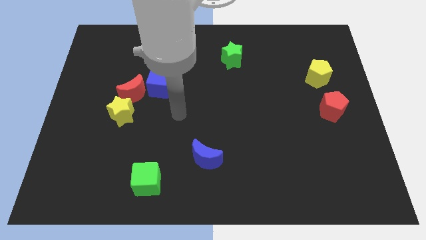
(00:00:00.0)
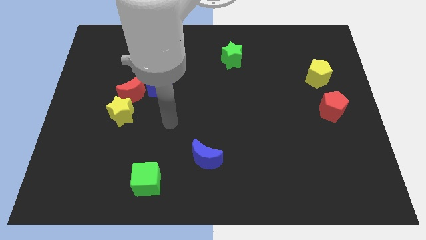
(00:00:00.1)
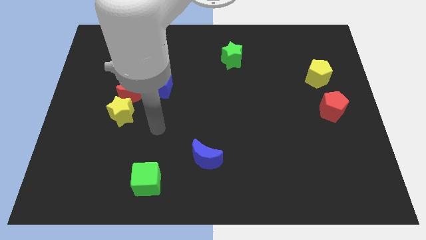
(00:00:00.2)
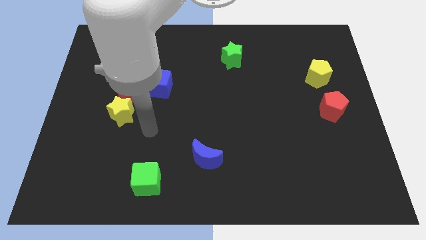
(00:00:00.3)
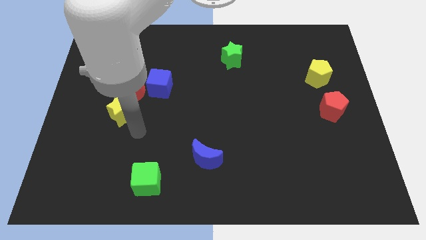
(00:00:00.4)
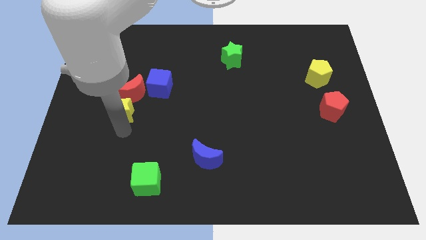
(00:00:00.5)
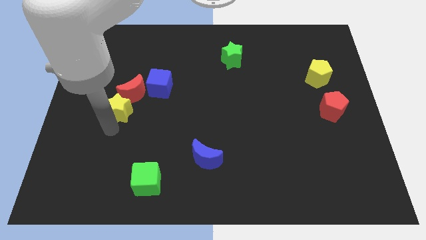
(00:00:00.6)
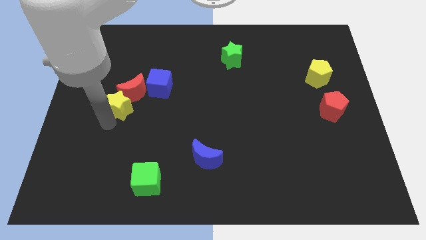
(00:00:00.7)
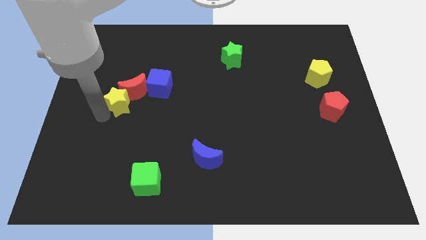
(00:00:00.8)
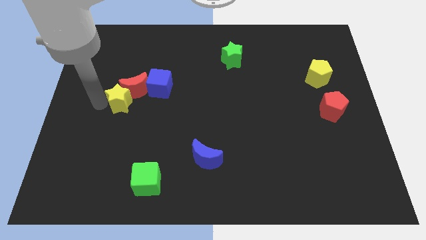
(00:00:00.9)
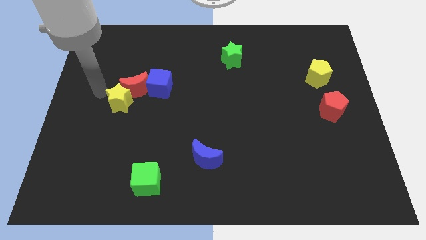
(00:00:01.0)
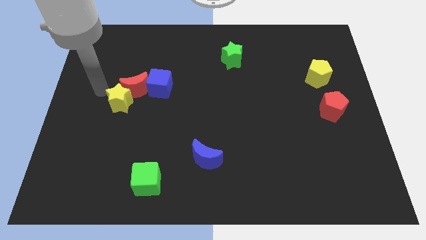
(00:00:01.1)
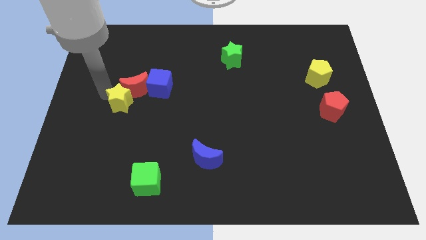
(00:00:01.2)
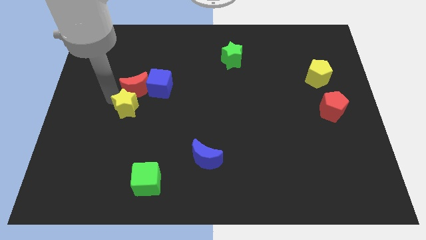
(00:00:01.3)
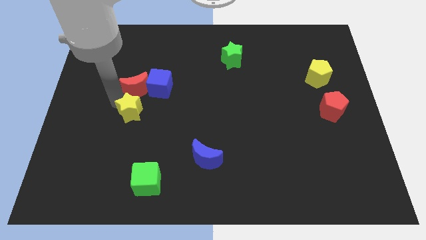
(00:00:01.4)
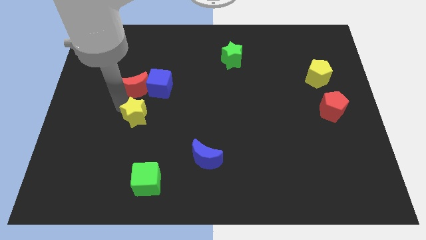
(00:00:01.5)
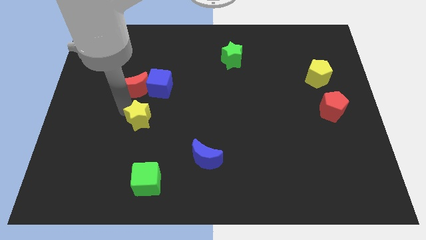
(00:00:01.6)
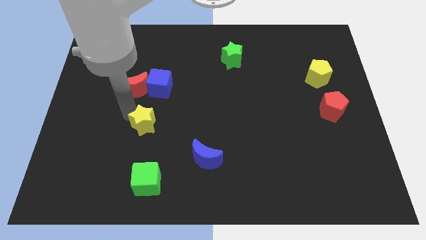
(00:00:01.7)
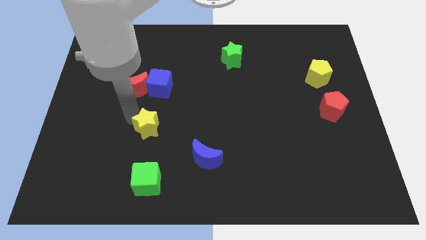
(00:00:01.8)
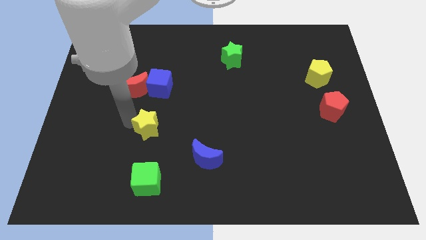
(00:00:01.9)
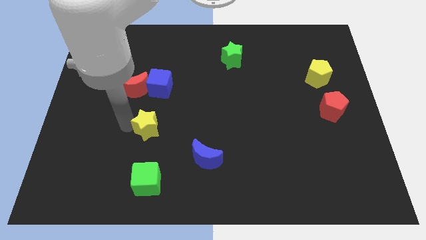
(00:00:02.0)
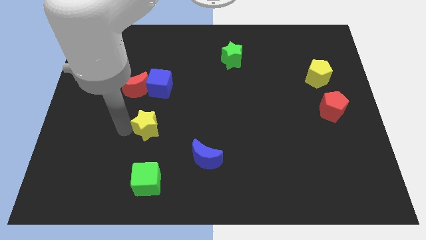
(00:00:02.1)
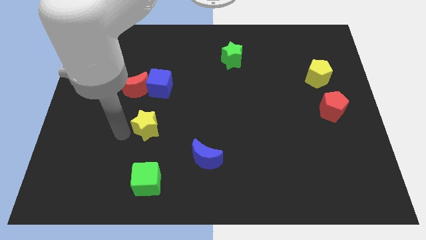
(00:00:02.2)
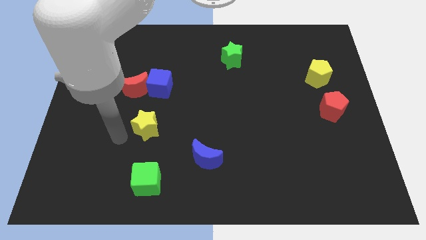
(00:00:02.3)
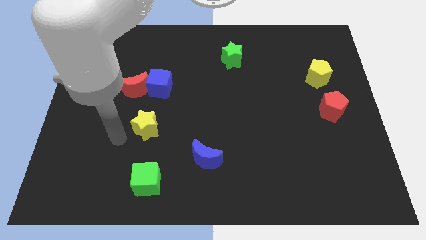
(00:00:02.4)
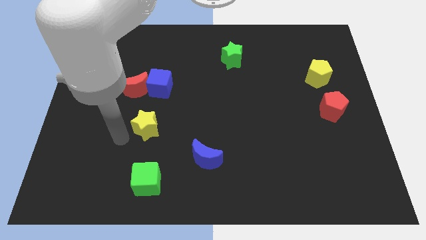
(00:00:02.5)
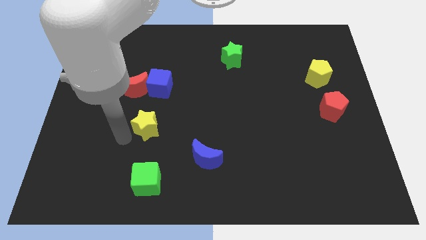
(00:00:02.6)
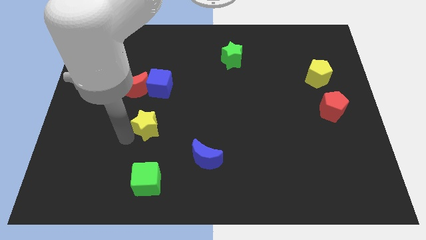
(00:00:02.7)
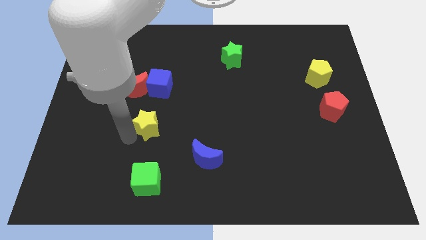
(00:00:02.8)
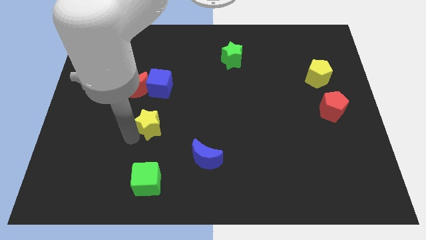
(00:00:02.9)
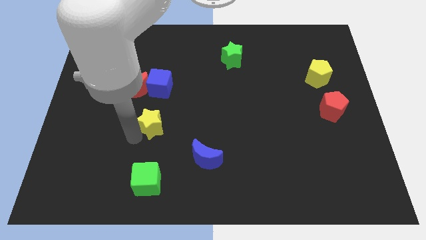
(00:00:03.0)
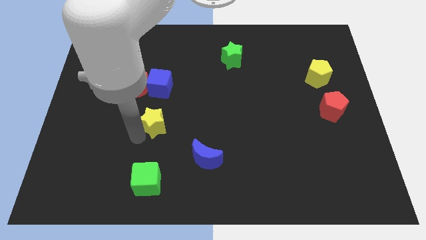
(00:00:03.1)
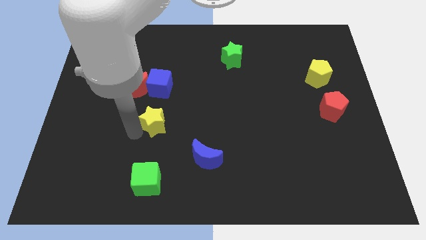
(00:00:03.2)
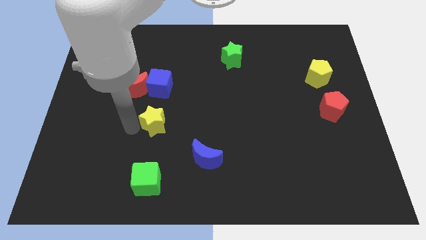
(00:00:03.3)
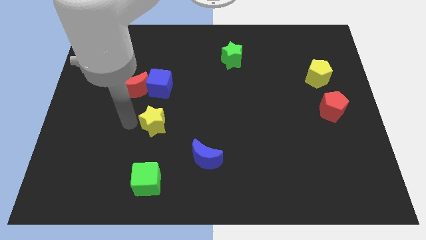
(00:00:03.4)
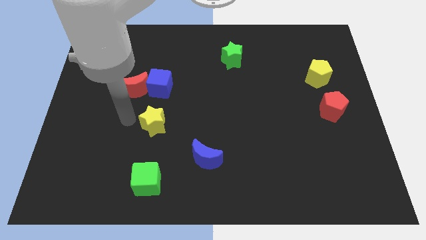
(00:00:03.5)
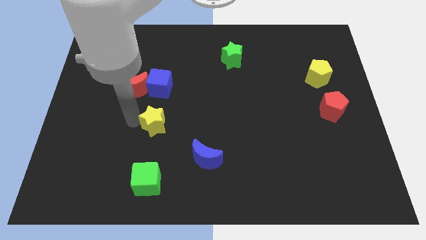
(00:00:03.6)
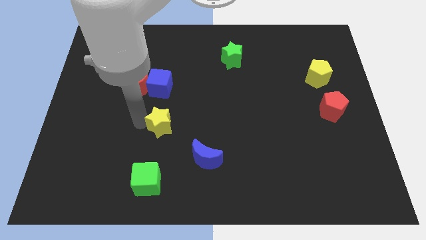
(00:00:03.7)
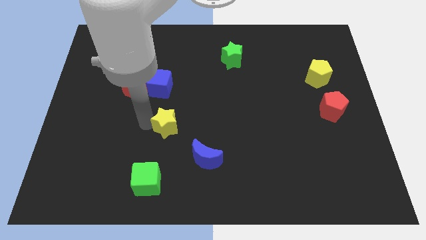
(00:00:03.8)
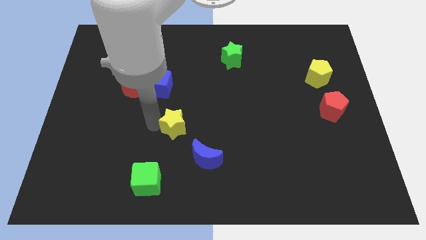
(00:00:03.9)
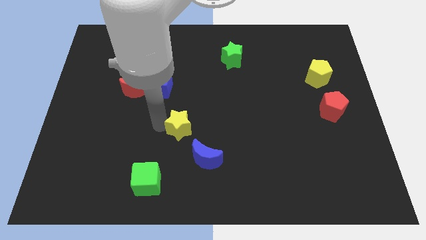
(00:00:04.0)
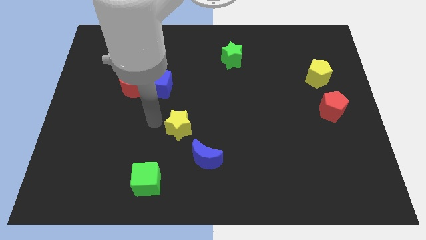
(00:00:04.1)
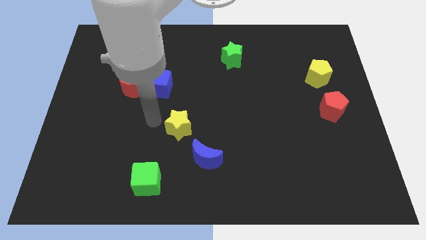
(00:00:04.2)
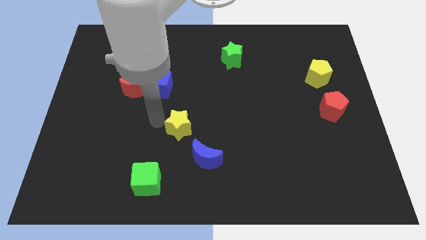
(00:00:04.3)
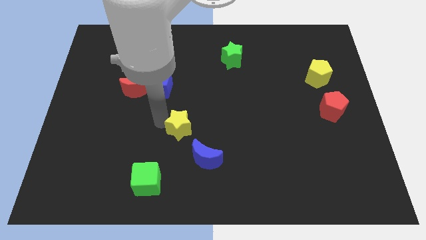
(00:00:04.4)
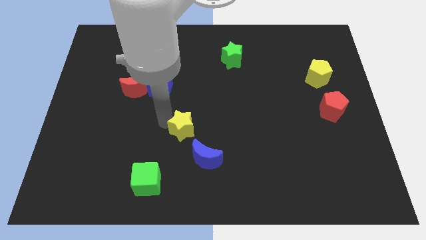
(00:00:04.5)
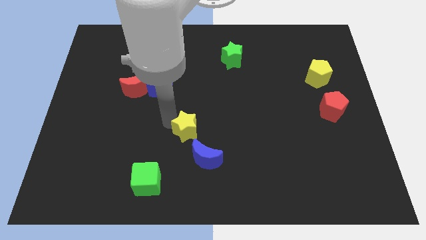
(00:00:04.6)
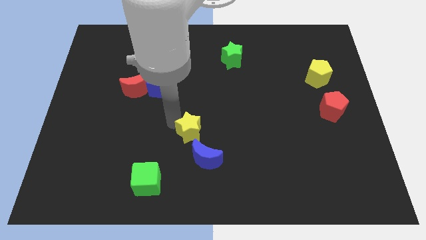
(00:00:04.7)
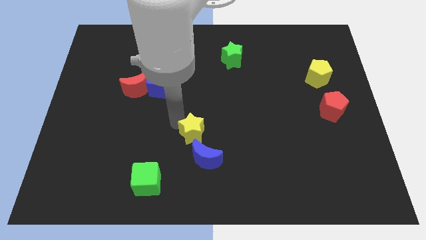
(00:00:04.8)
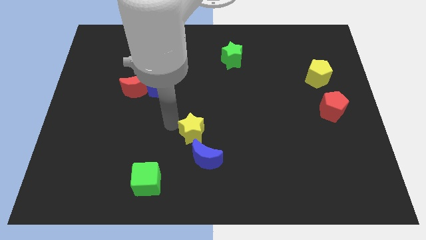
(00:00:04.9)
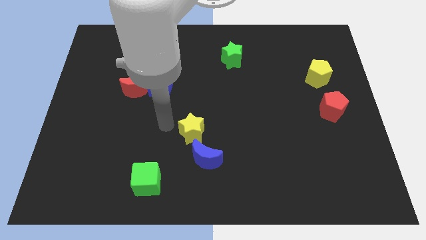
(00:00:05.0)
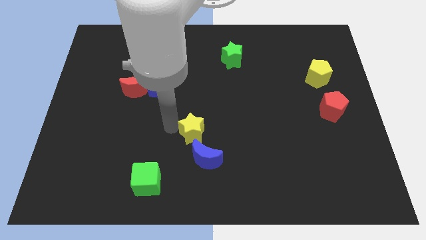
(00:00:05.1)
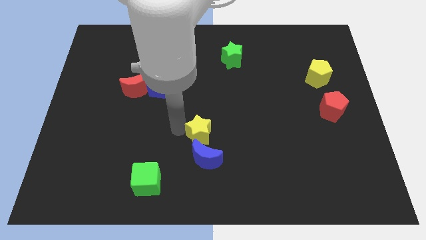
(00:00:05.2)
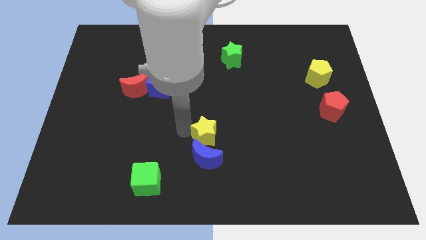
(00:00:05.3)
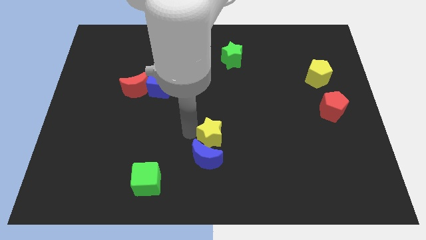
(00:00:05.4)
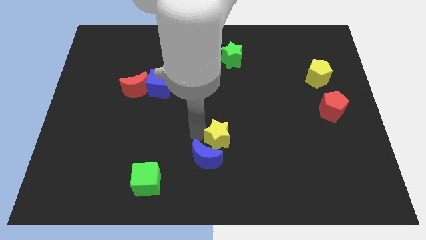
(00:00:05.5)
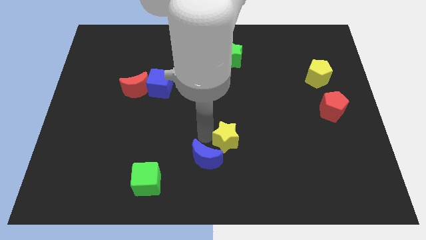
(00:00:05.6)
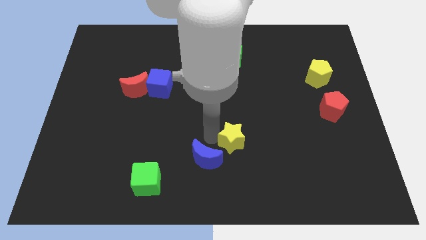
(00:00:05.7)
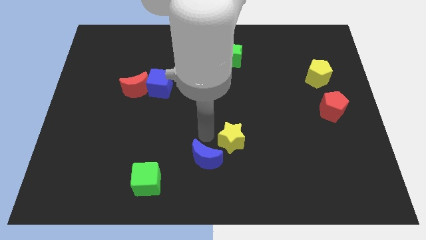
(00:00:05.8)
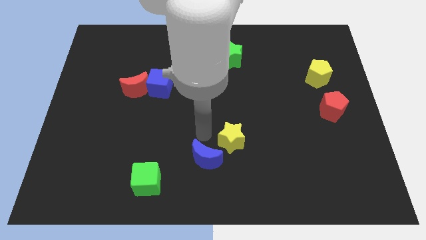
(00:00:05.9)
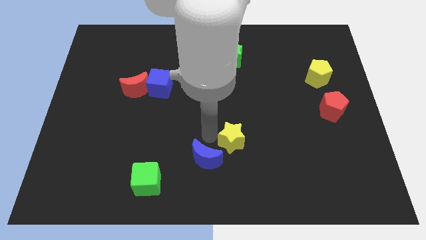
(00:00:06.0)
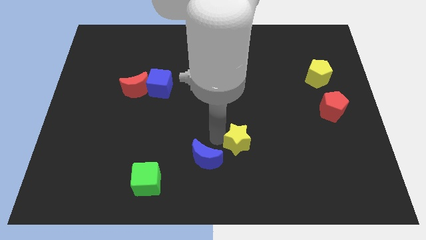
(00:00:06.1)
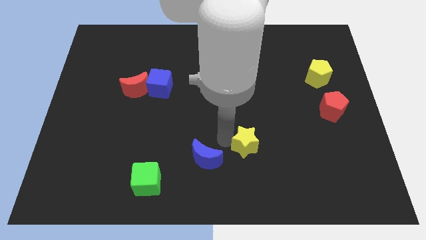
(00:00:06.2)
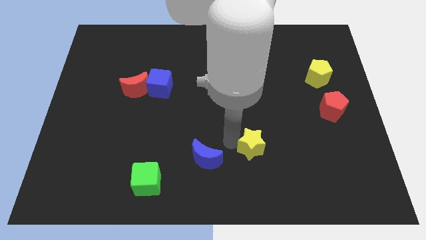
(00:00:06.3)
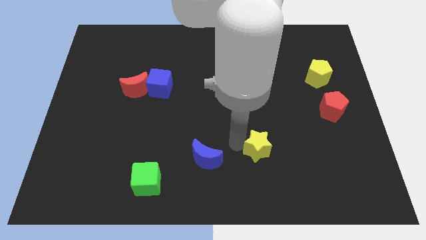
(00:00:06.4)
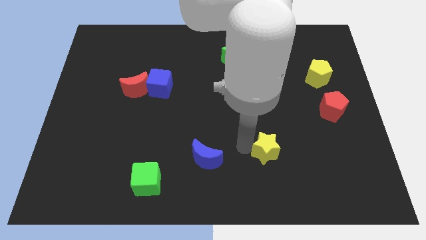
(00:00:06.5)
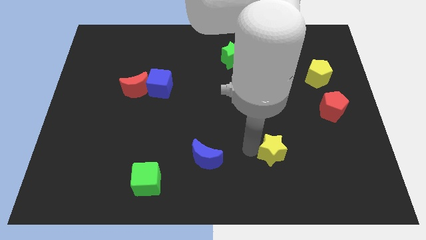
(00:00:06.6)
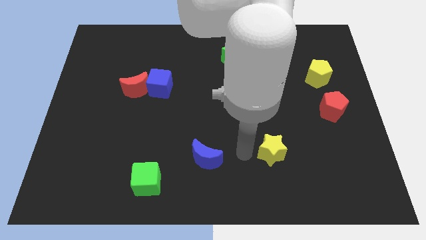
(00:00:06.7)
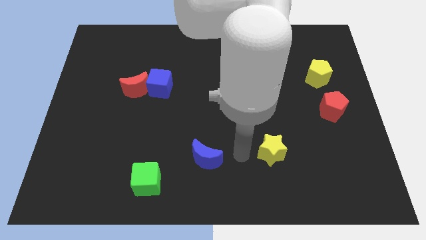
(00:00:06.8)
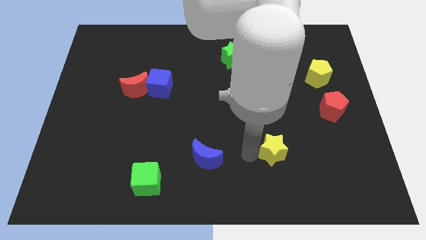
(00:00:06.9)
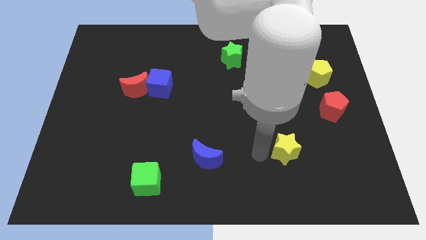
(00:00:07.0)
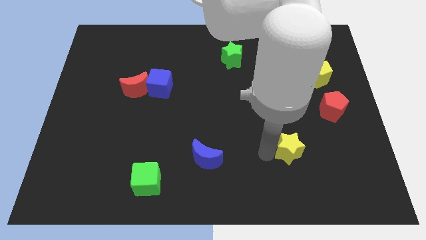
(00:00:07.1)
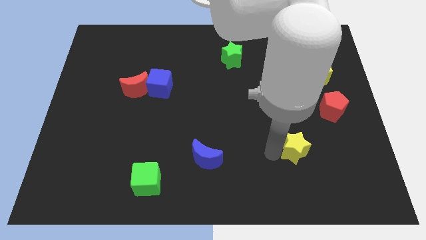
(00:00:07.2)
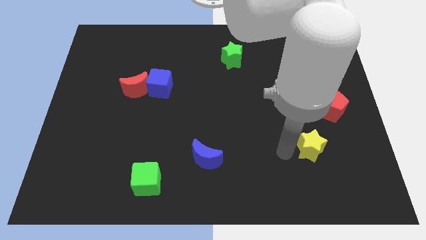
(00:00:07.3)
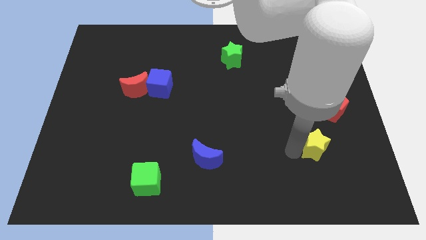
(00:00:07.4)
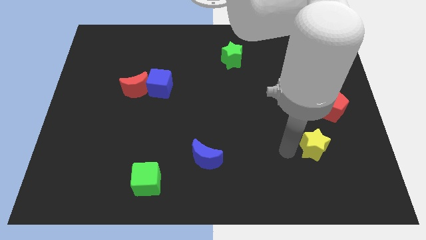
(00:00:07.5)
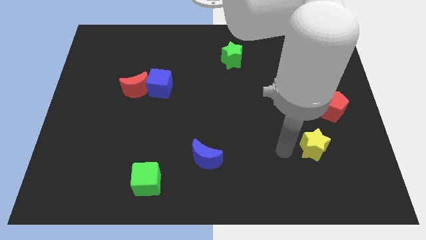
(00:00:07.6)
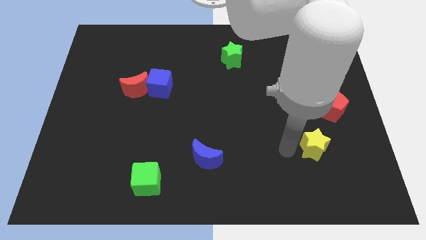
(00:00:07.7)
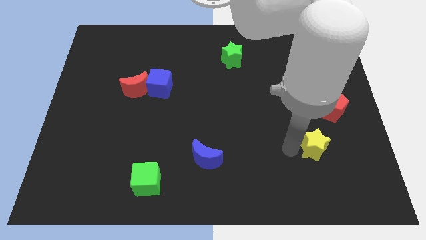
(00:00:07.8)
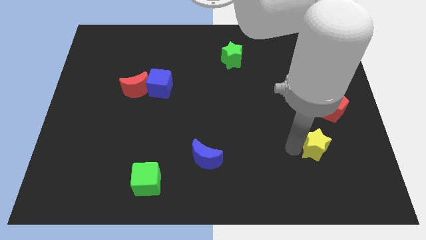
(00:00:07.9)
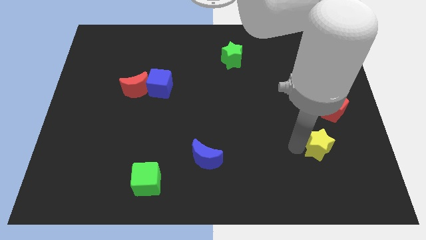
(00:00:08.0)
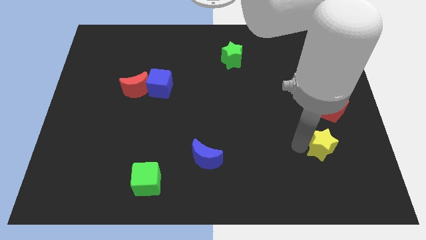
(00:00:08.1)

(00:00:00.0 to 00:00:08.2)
push the yellow star below the red pentagon
